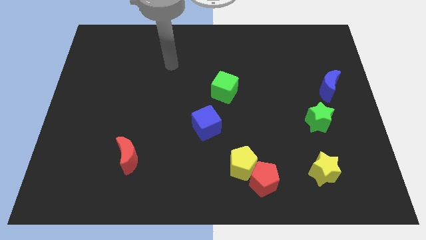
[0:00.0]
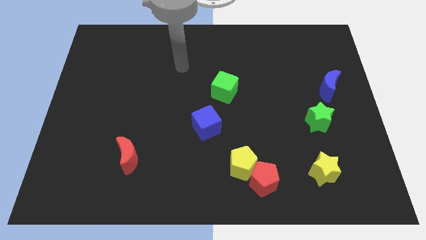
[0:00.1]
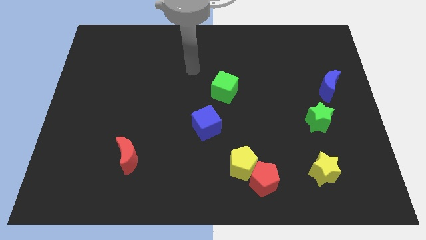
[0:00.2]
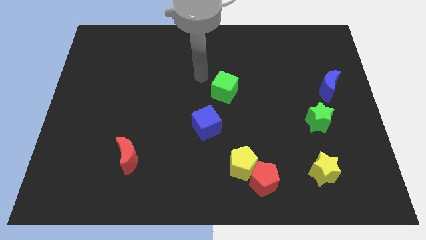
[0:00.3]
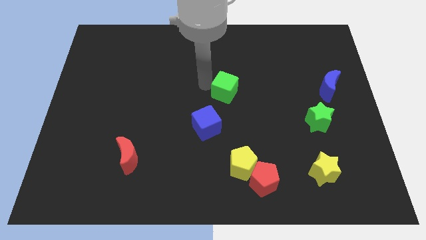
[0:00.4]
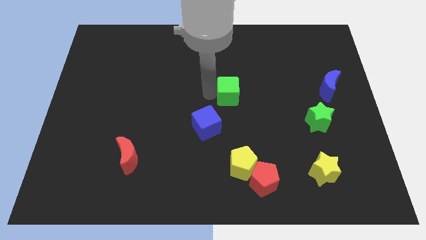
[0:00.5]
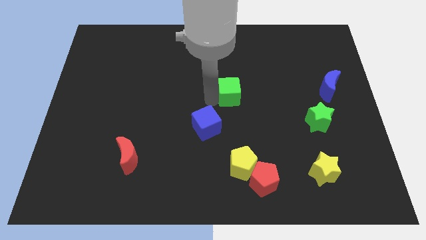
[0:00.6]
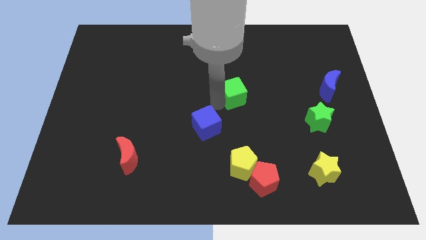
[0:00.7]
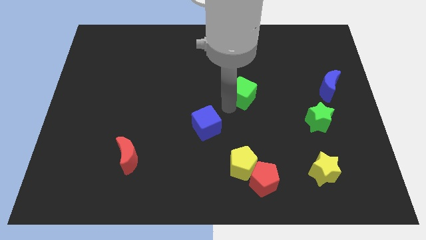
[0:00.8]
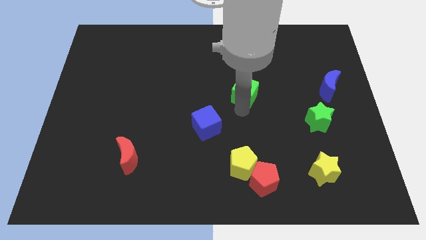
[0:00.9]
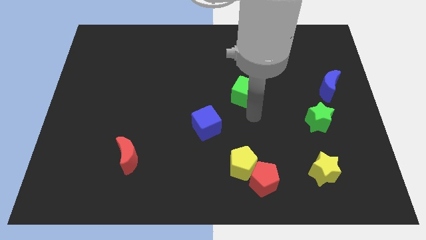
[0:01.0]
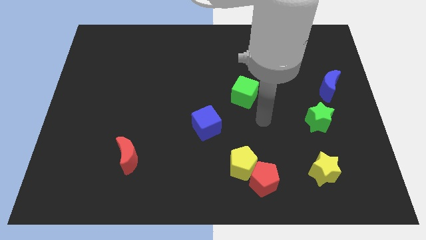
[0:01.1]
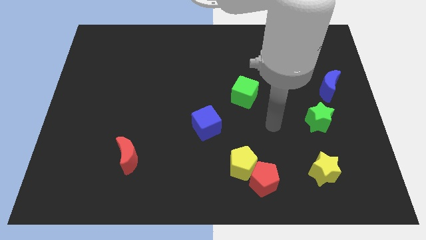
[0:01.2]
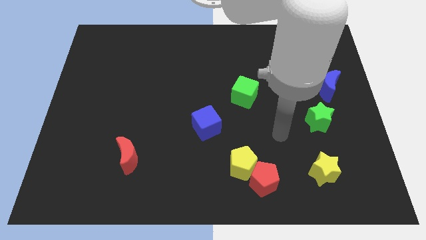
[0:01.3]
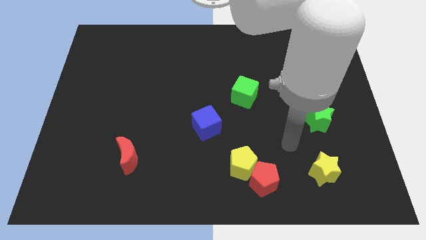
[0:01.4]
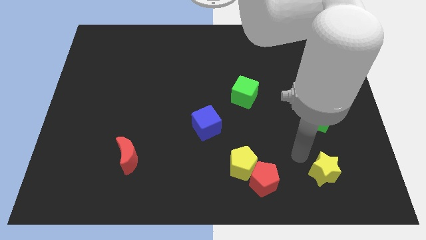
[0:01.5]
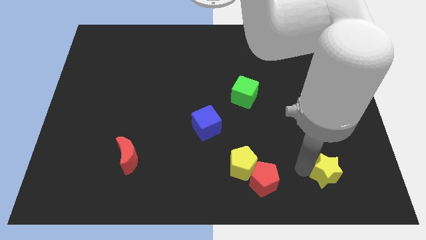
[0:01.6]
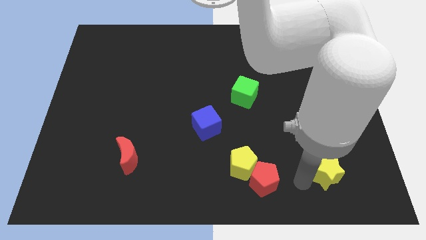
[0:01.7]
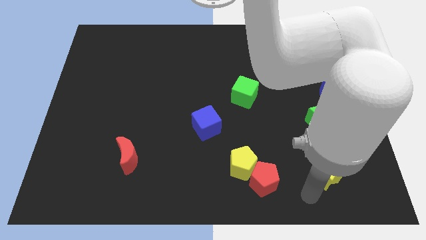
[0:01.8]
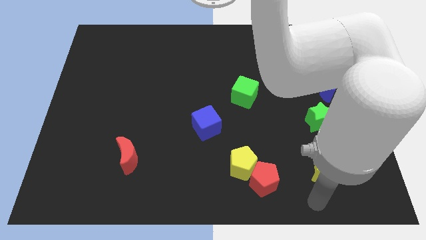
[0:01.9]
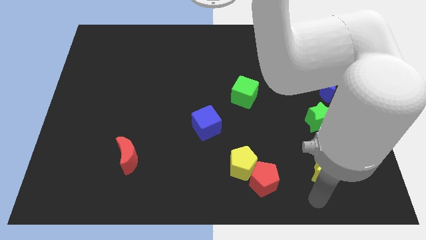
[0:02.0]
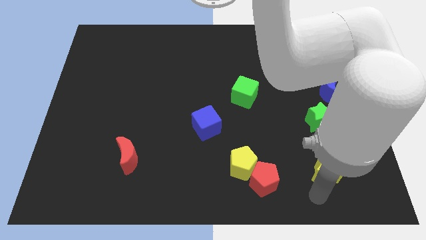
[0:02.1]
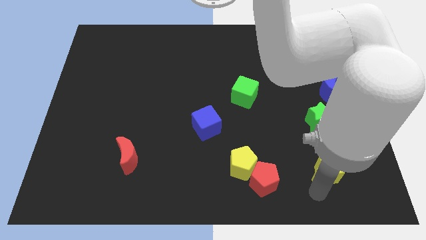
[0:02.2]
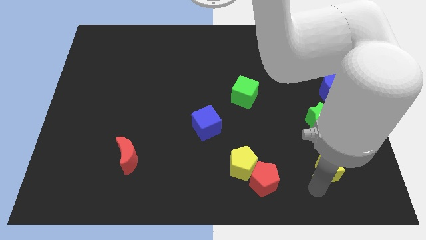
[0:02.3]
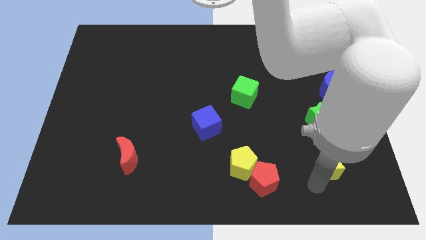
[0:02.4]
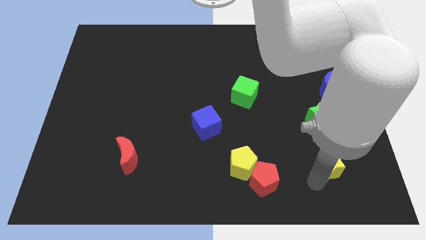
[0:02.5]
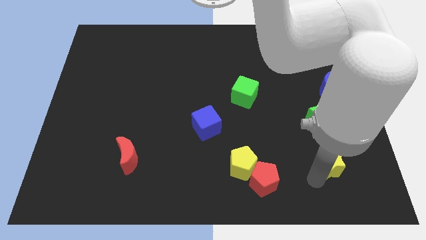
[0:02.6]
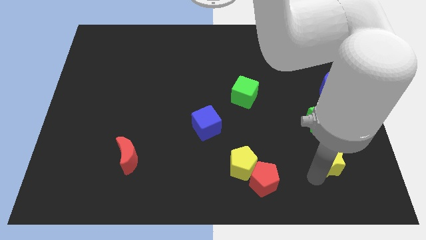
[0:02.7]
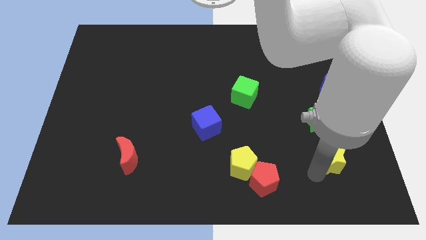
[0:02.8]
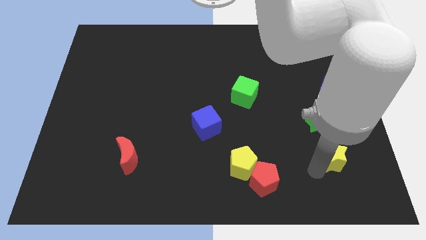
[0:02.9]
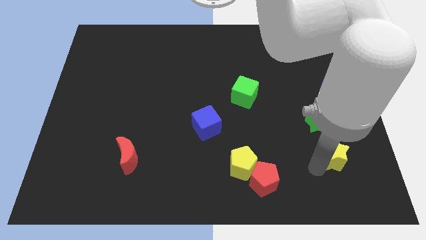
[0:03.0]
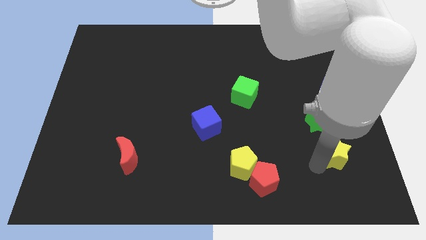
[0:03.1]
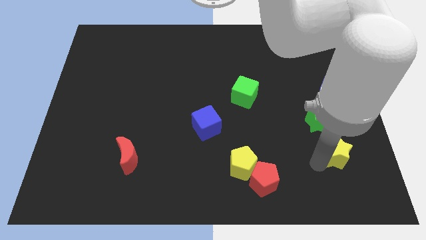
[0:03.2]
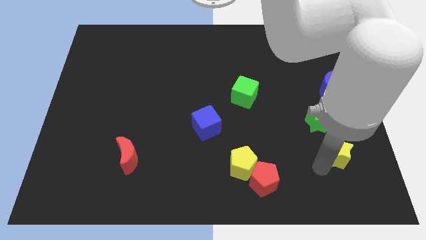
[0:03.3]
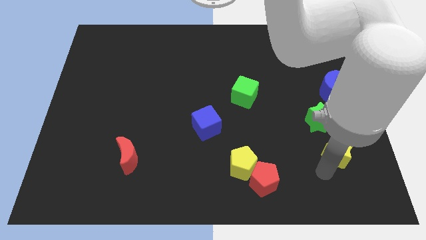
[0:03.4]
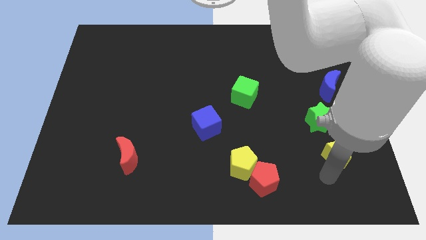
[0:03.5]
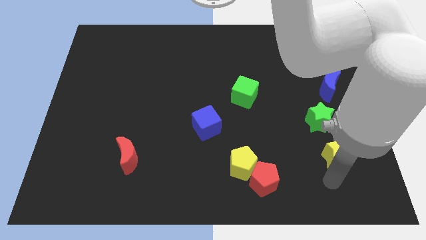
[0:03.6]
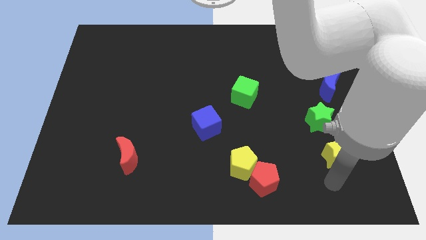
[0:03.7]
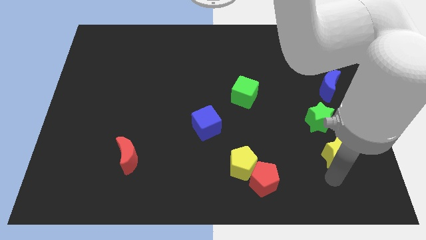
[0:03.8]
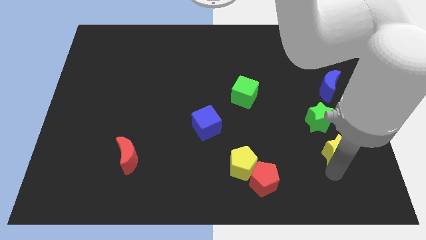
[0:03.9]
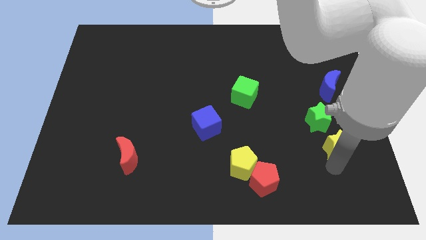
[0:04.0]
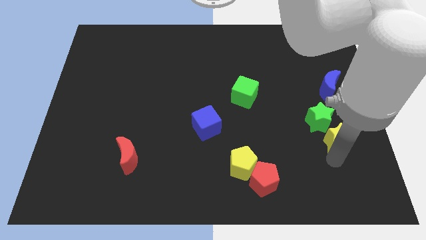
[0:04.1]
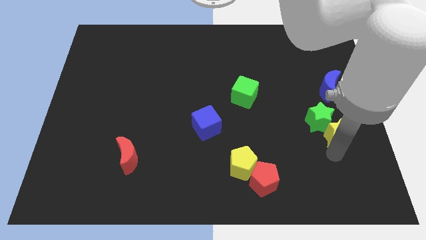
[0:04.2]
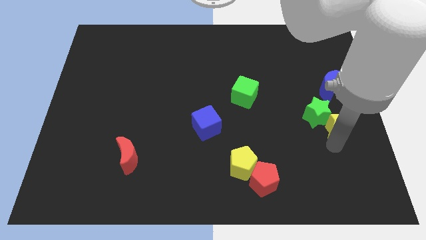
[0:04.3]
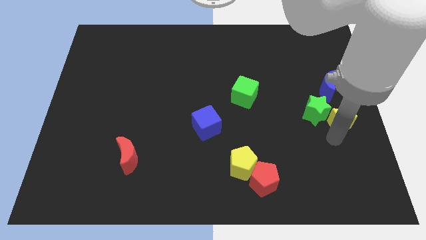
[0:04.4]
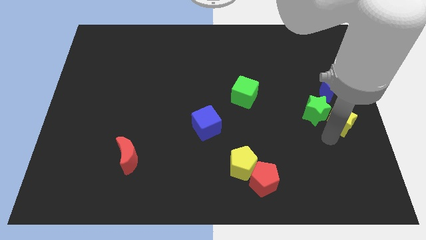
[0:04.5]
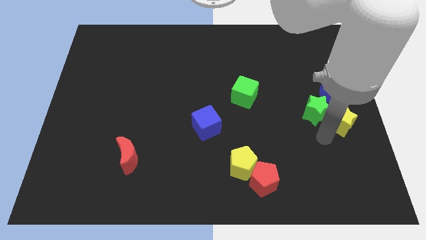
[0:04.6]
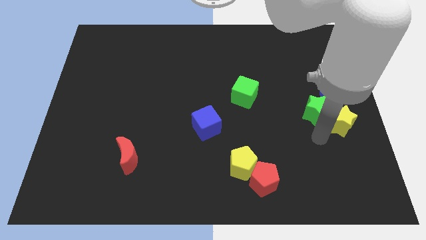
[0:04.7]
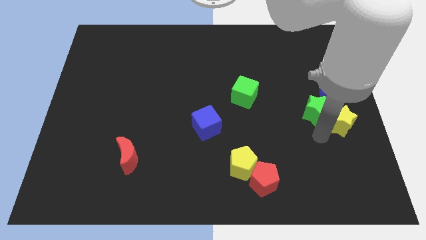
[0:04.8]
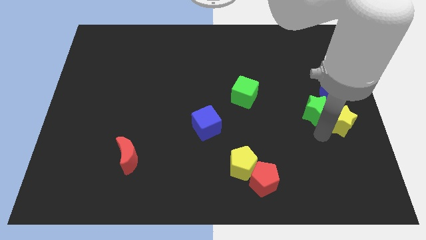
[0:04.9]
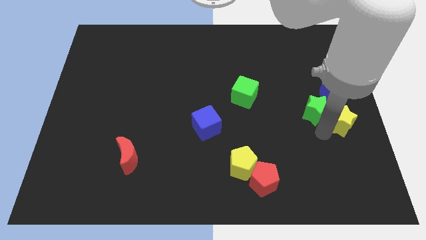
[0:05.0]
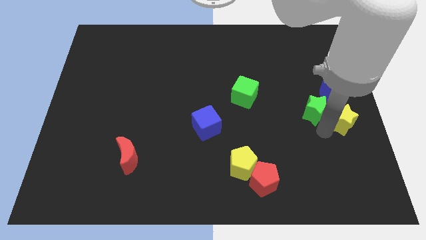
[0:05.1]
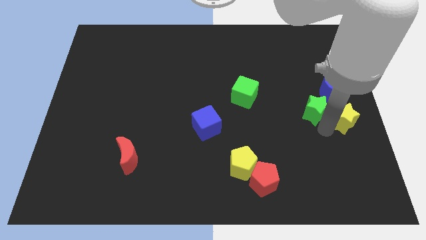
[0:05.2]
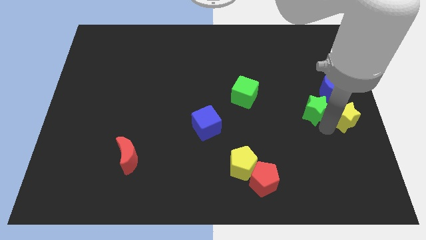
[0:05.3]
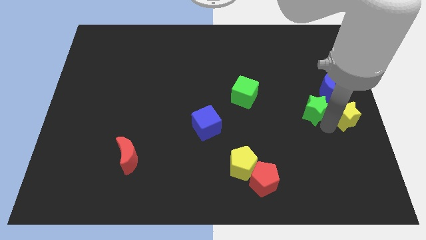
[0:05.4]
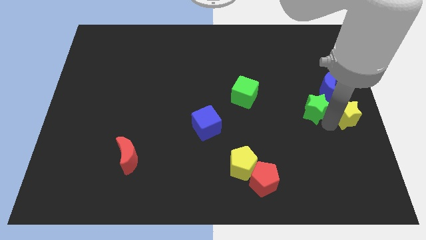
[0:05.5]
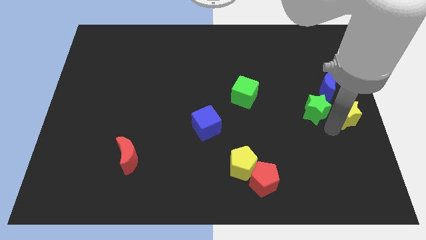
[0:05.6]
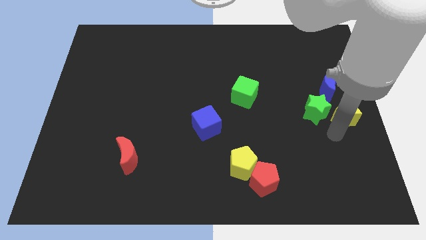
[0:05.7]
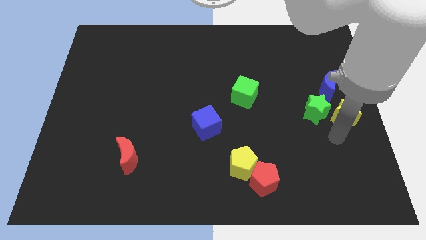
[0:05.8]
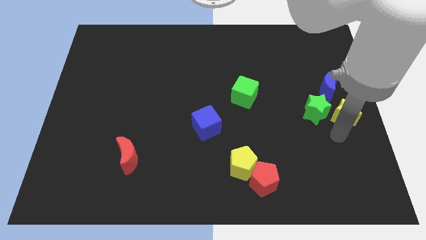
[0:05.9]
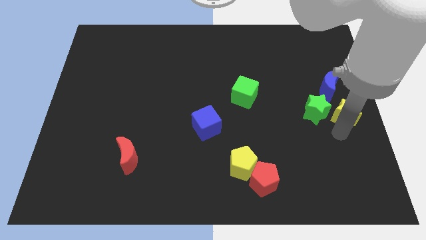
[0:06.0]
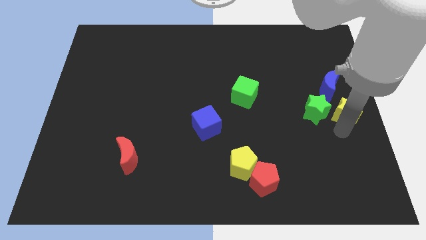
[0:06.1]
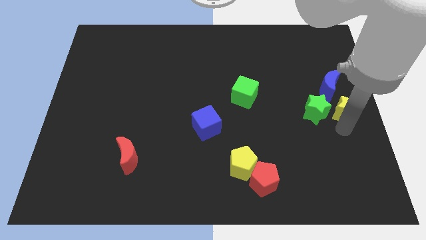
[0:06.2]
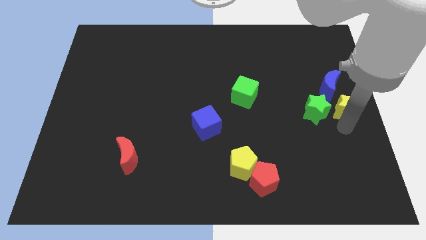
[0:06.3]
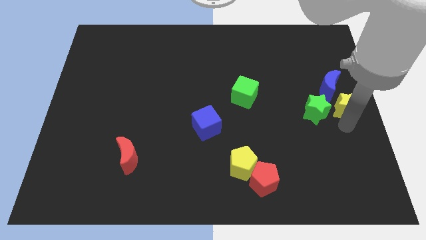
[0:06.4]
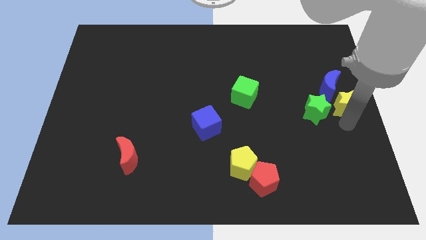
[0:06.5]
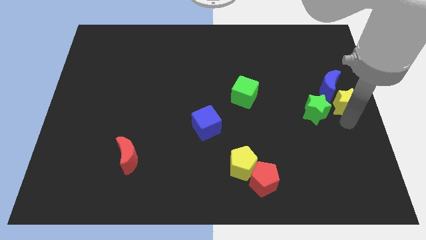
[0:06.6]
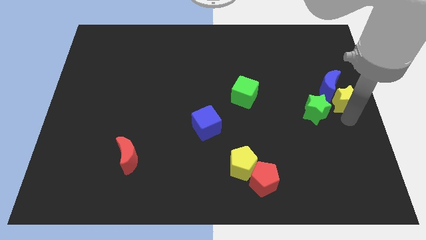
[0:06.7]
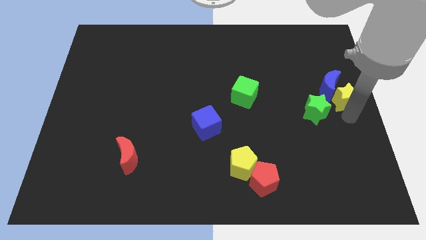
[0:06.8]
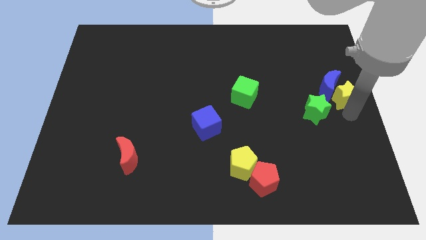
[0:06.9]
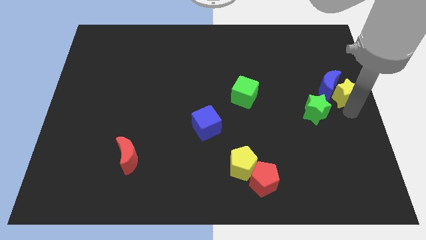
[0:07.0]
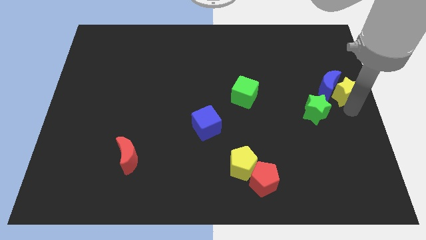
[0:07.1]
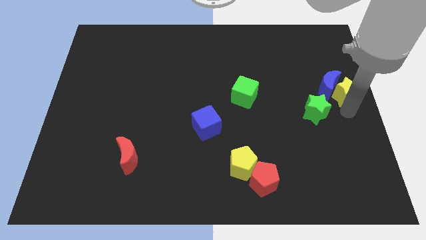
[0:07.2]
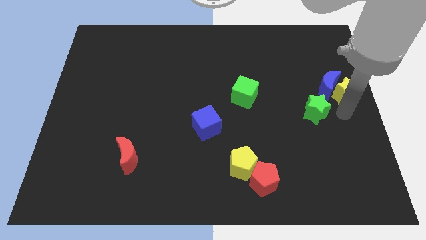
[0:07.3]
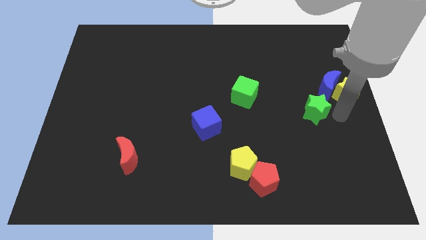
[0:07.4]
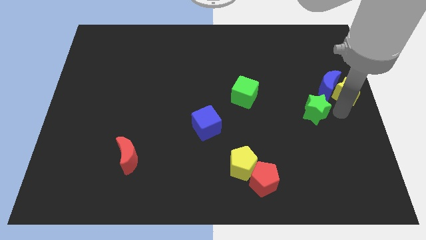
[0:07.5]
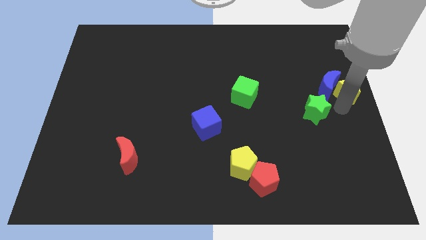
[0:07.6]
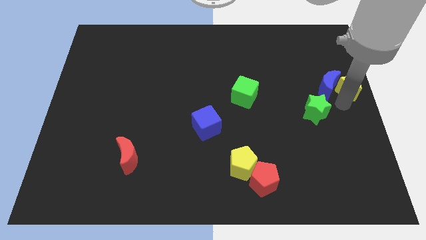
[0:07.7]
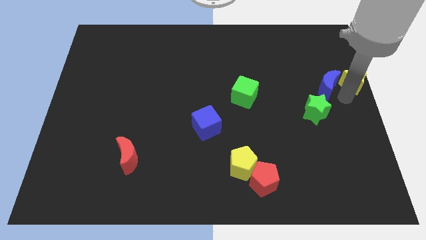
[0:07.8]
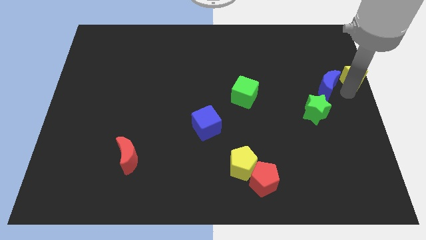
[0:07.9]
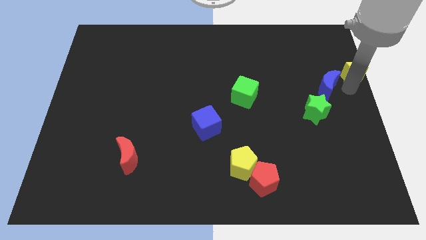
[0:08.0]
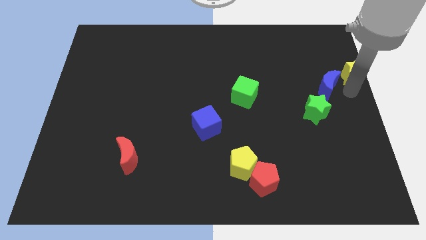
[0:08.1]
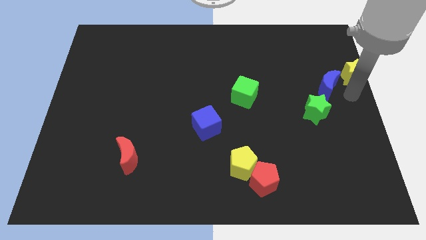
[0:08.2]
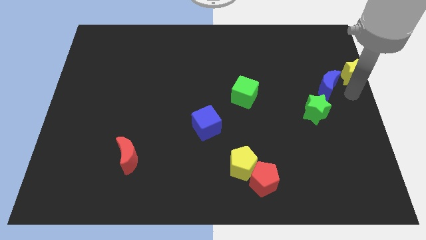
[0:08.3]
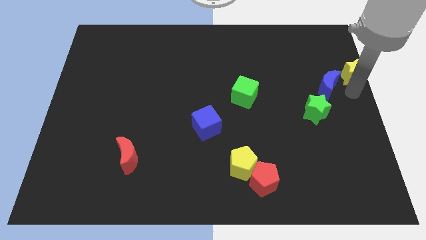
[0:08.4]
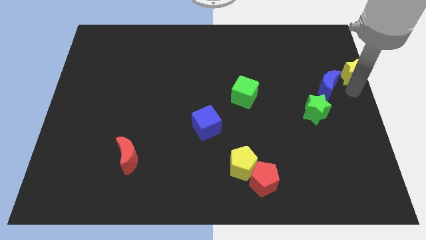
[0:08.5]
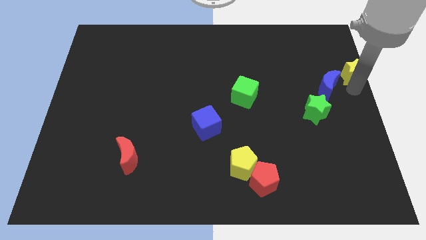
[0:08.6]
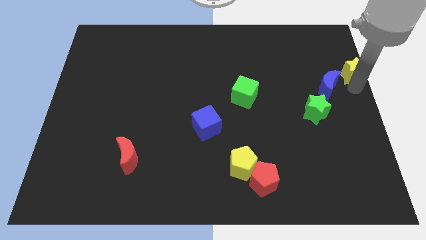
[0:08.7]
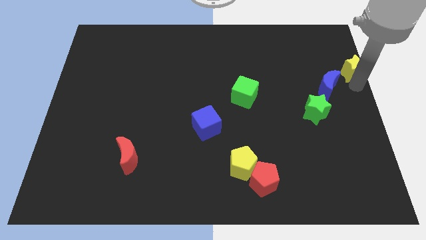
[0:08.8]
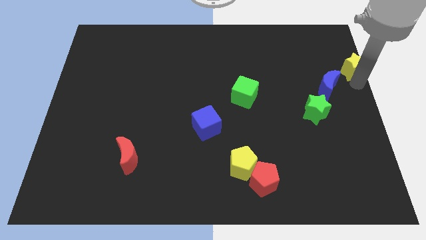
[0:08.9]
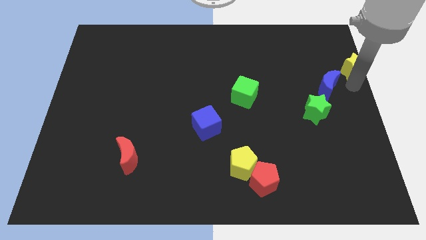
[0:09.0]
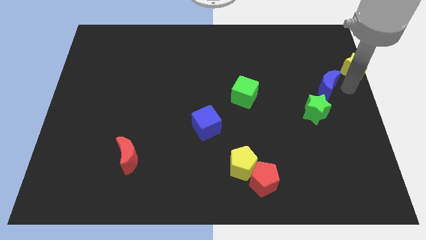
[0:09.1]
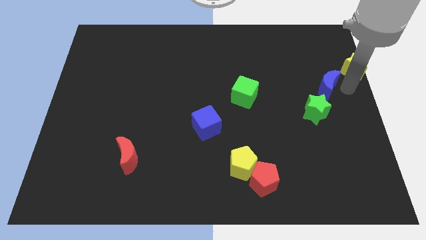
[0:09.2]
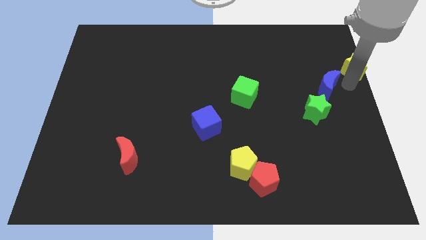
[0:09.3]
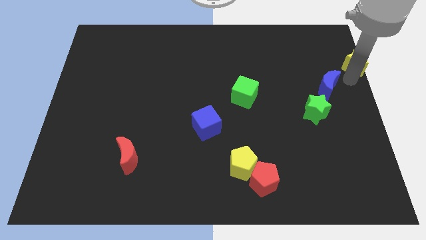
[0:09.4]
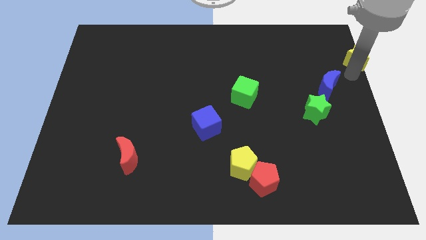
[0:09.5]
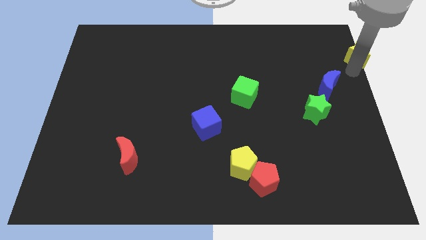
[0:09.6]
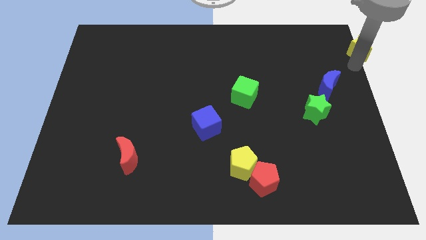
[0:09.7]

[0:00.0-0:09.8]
slide the yellow star to the top right
